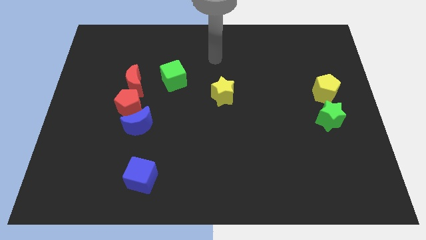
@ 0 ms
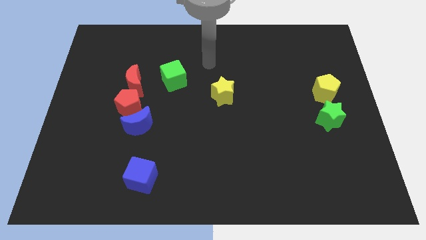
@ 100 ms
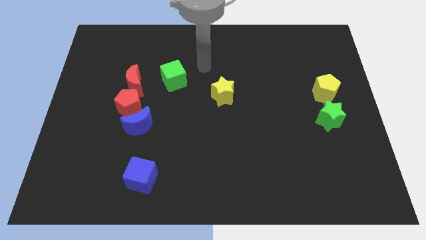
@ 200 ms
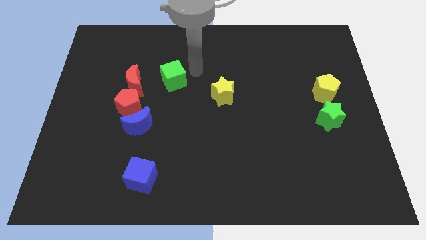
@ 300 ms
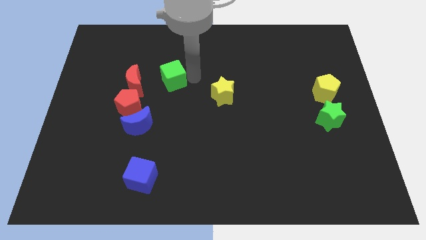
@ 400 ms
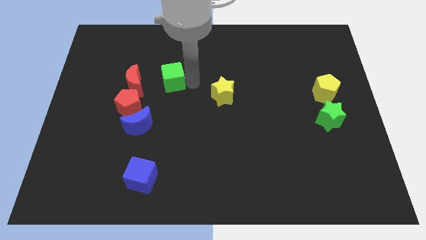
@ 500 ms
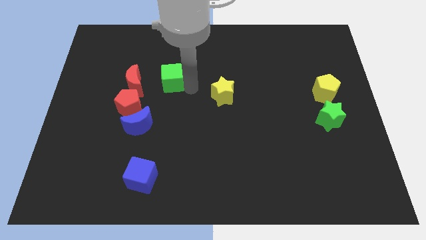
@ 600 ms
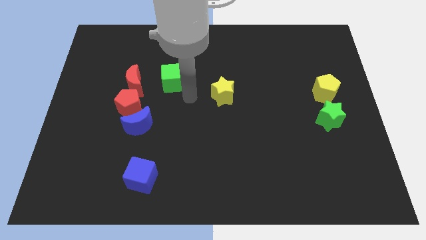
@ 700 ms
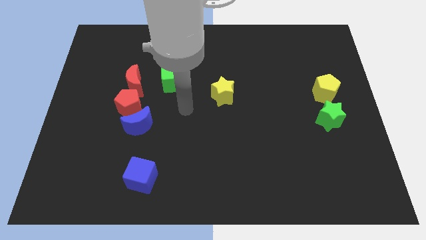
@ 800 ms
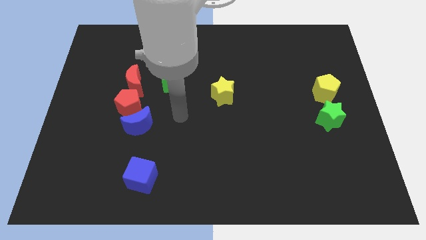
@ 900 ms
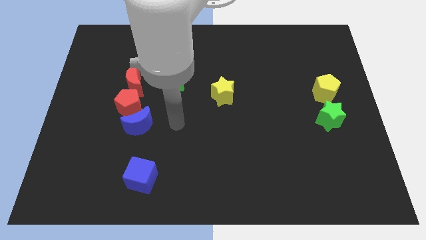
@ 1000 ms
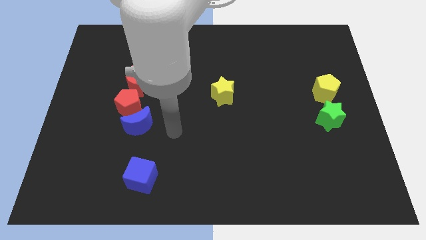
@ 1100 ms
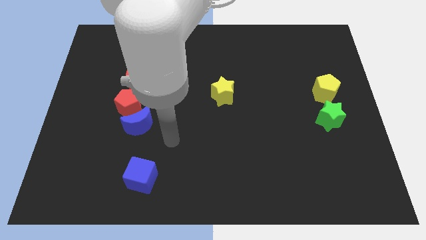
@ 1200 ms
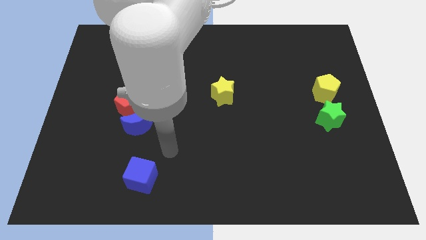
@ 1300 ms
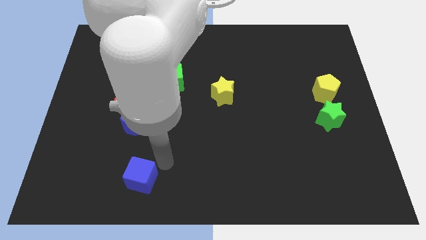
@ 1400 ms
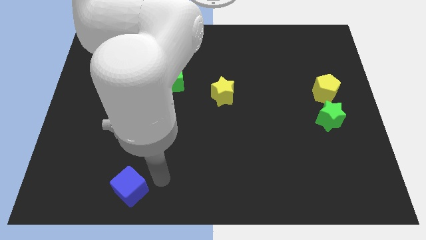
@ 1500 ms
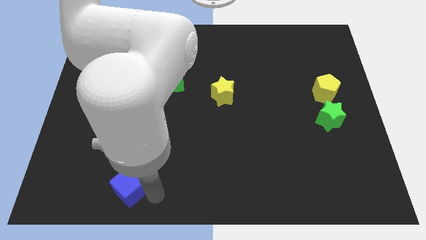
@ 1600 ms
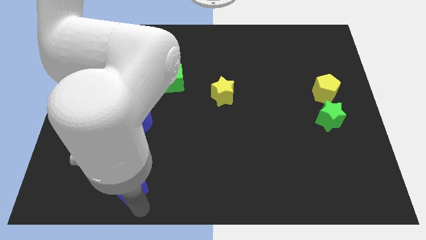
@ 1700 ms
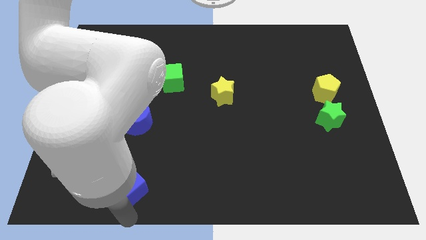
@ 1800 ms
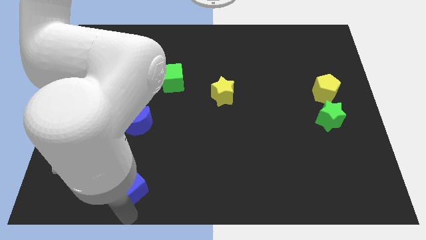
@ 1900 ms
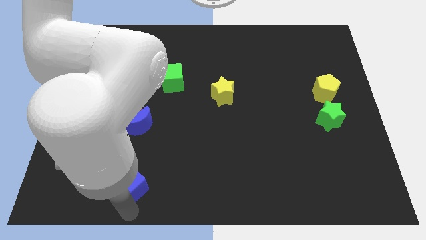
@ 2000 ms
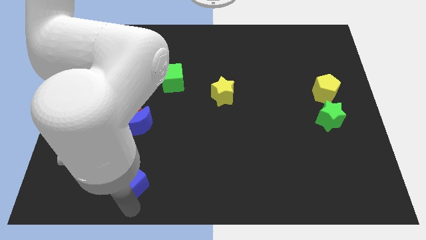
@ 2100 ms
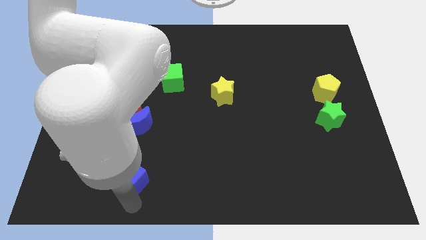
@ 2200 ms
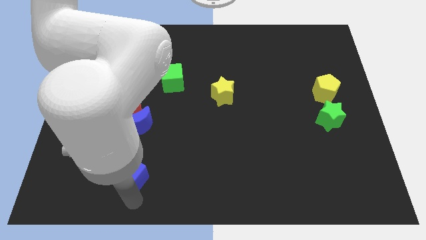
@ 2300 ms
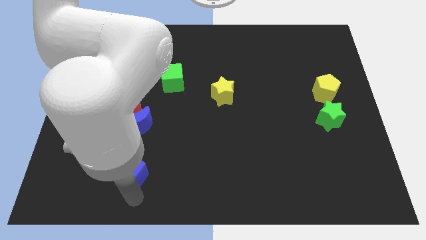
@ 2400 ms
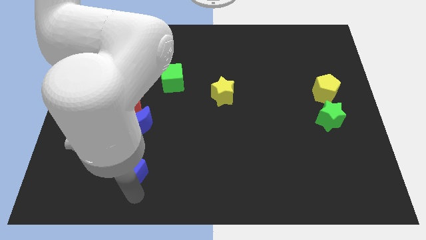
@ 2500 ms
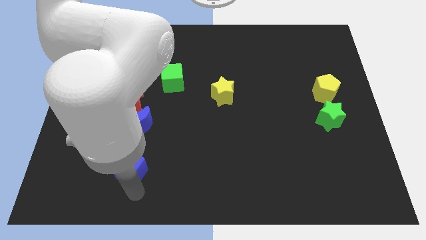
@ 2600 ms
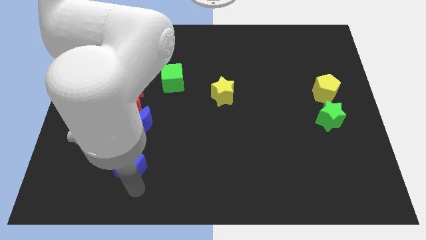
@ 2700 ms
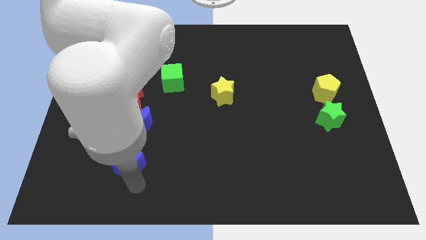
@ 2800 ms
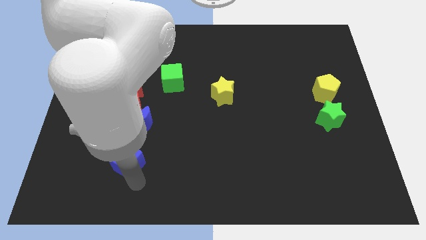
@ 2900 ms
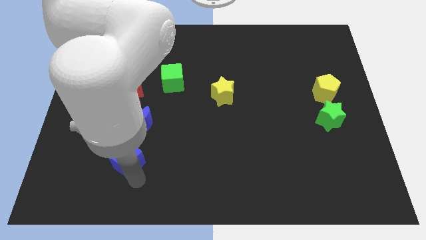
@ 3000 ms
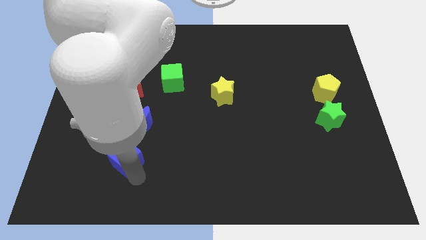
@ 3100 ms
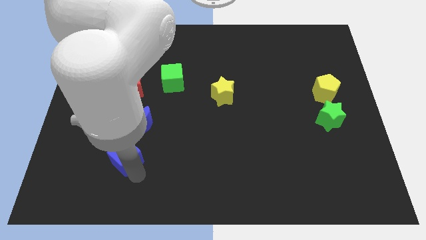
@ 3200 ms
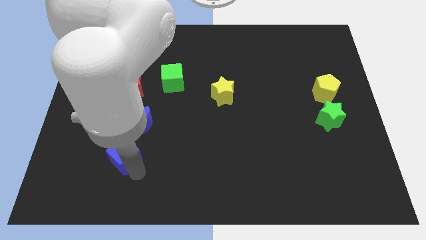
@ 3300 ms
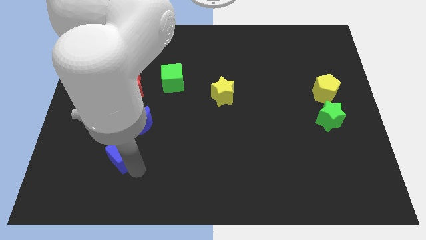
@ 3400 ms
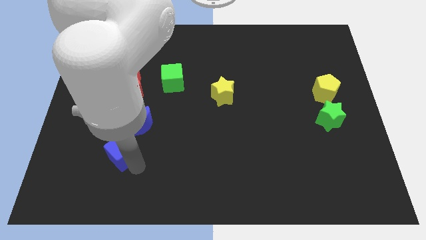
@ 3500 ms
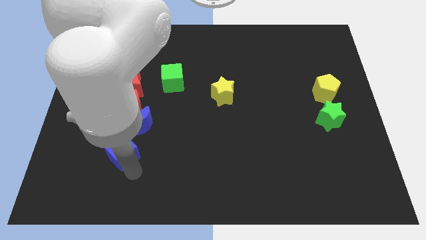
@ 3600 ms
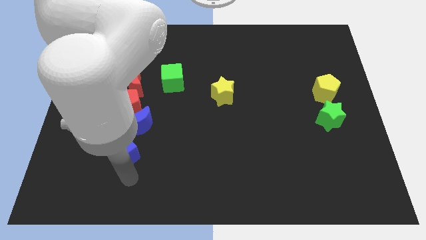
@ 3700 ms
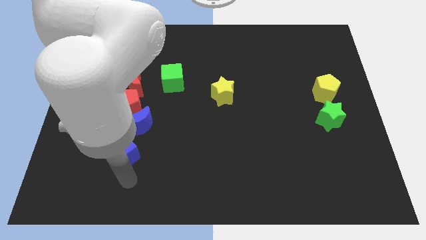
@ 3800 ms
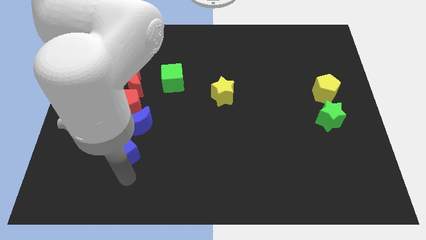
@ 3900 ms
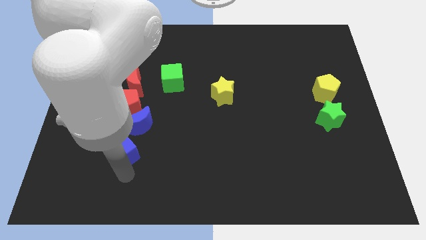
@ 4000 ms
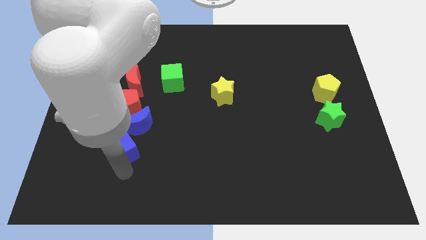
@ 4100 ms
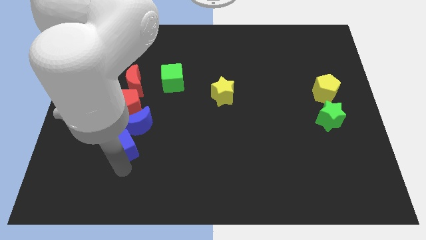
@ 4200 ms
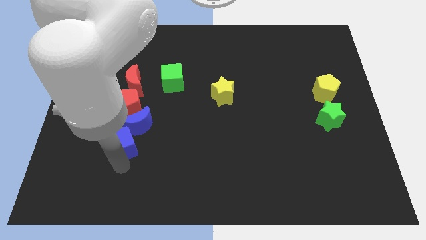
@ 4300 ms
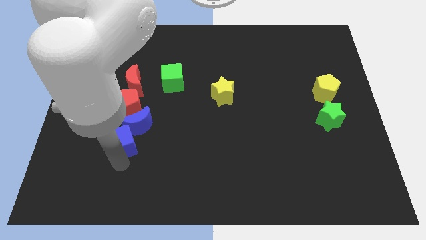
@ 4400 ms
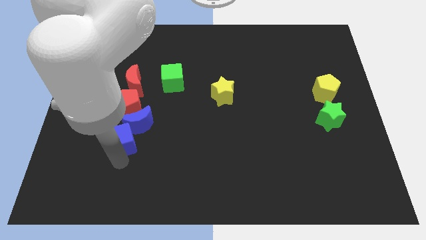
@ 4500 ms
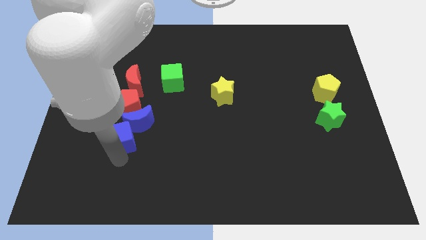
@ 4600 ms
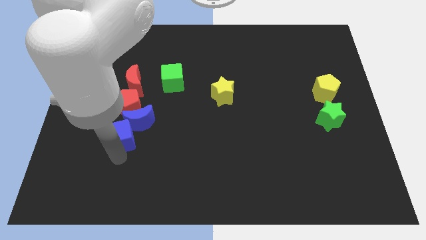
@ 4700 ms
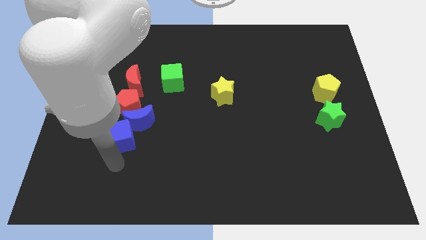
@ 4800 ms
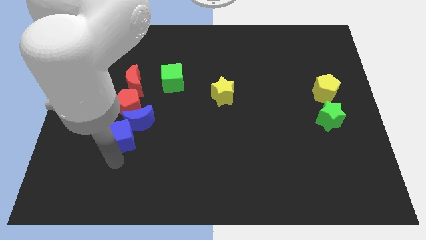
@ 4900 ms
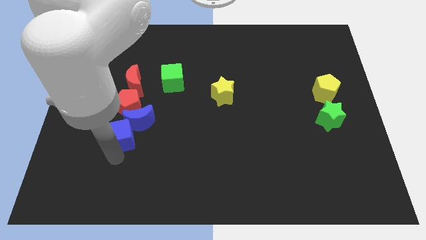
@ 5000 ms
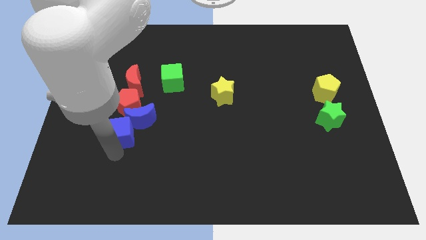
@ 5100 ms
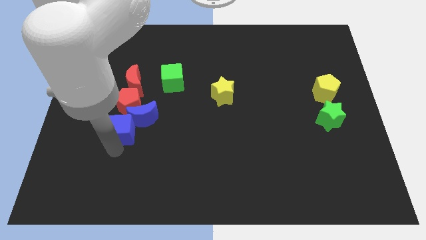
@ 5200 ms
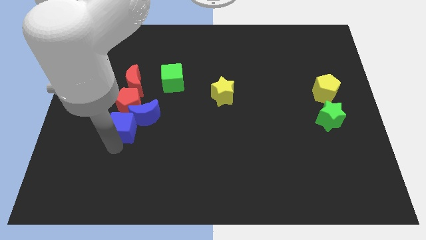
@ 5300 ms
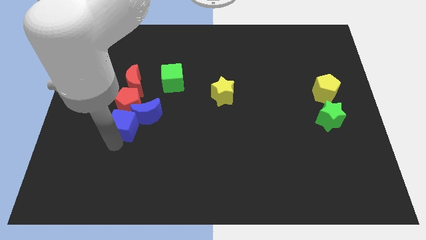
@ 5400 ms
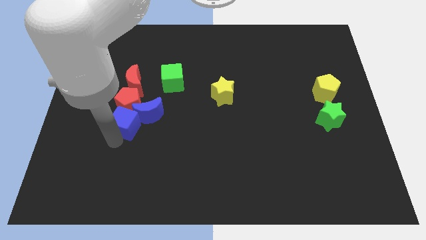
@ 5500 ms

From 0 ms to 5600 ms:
push the blue cube close to the red pentagon

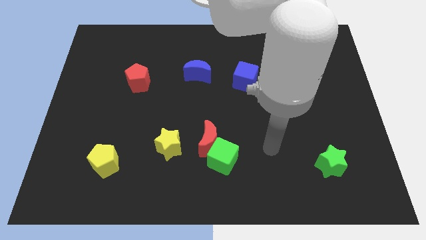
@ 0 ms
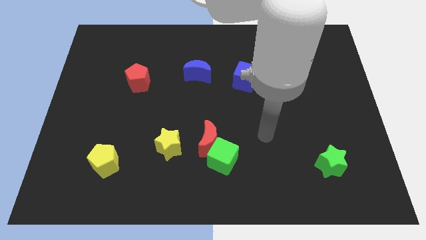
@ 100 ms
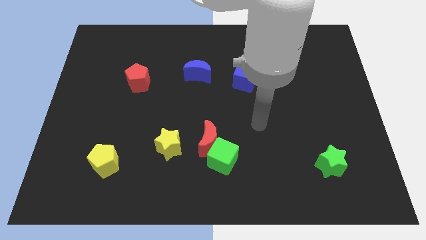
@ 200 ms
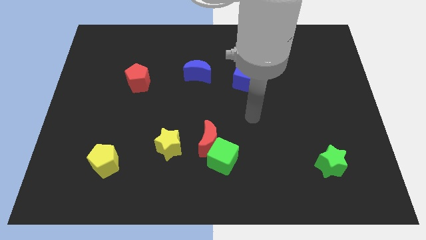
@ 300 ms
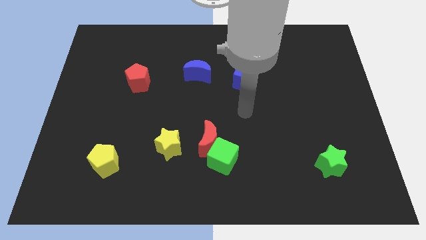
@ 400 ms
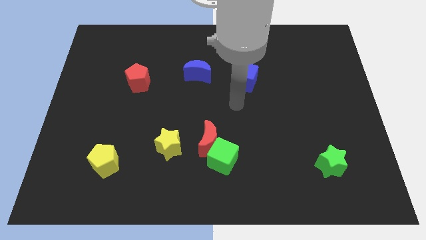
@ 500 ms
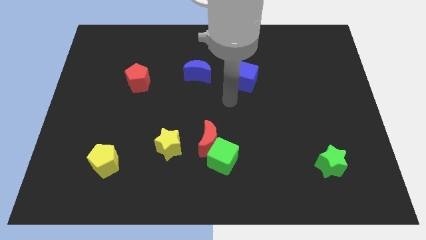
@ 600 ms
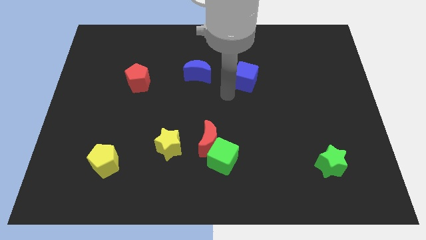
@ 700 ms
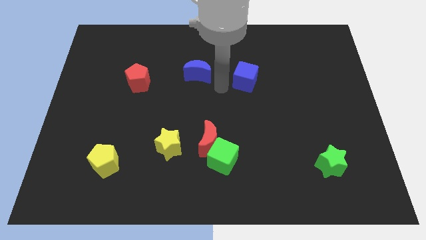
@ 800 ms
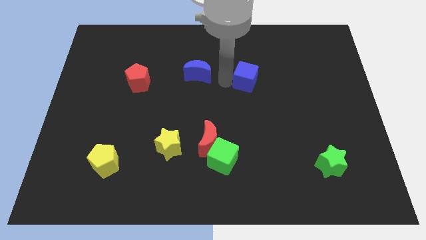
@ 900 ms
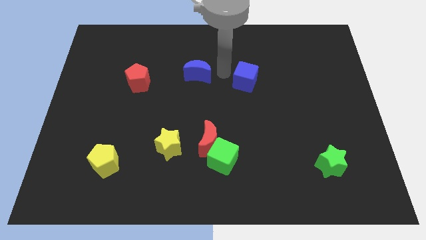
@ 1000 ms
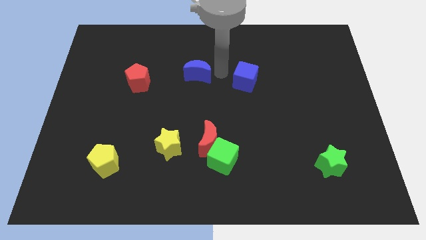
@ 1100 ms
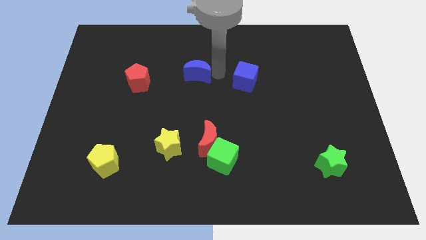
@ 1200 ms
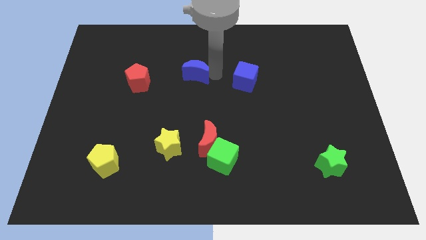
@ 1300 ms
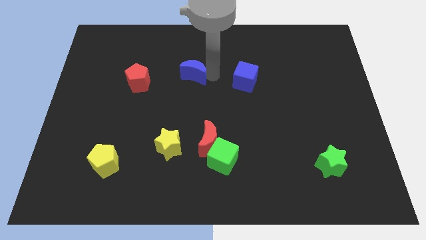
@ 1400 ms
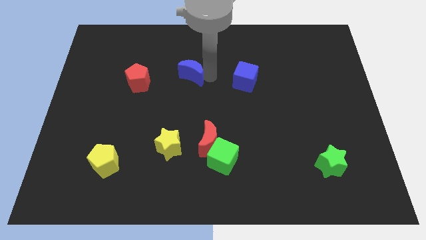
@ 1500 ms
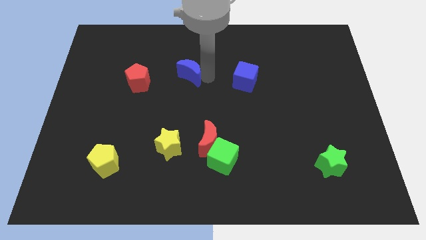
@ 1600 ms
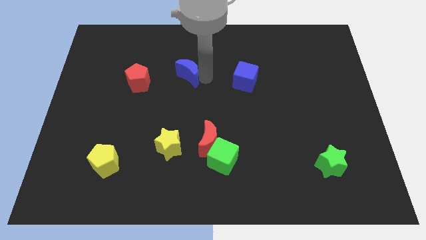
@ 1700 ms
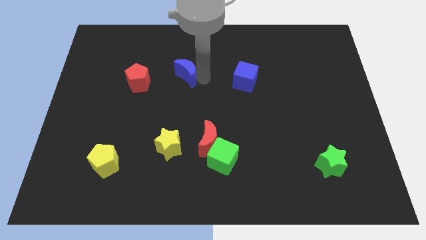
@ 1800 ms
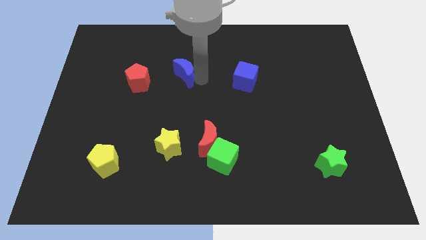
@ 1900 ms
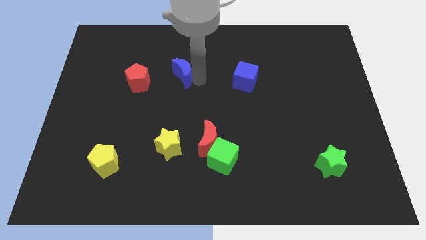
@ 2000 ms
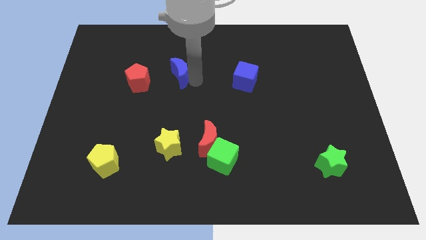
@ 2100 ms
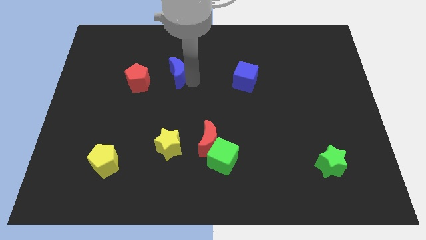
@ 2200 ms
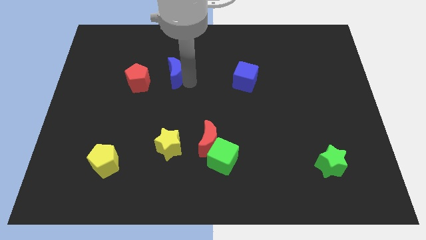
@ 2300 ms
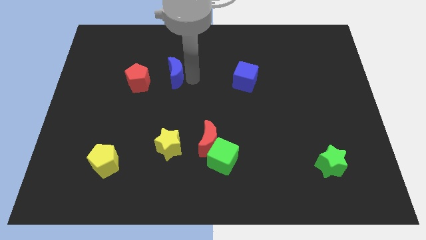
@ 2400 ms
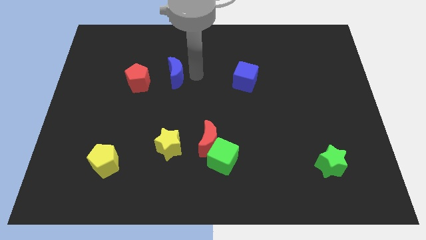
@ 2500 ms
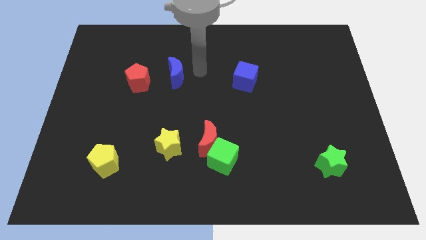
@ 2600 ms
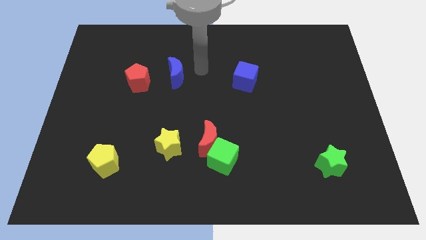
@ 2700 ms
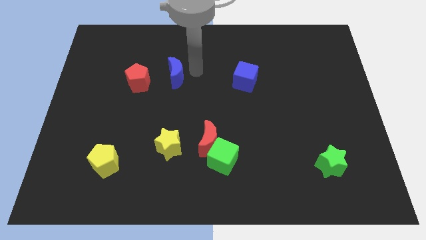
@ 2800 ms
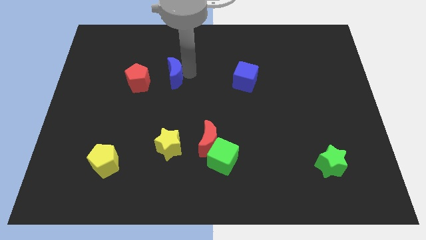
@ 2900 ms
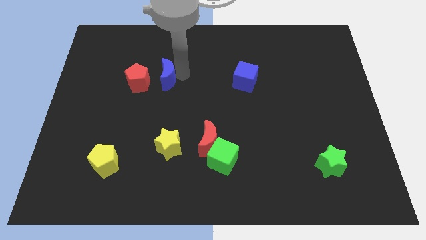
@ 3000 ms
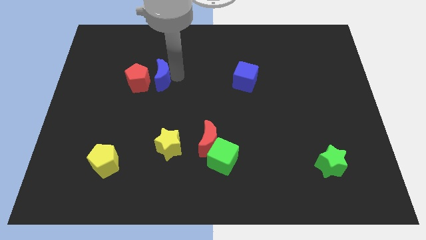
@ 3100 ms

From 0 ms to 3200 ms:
slide the blue moon next to the red pentagon
